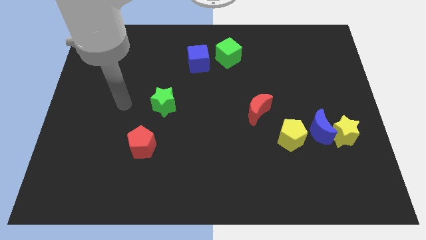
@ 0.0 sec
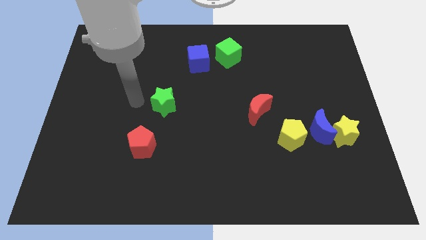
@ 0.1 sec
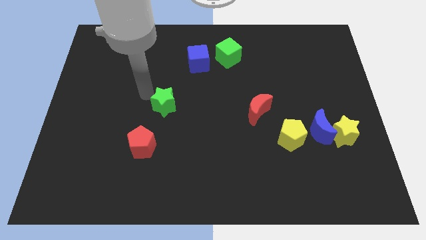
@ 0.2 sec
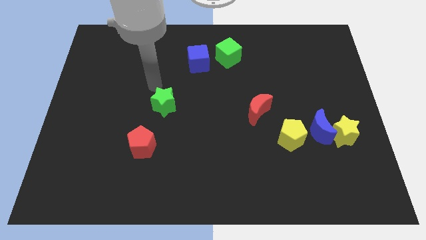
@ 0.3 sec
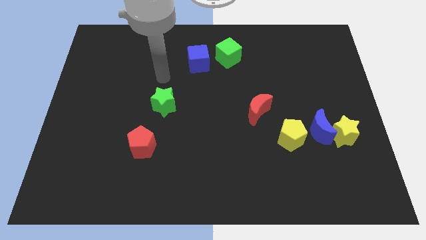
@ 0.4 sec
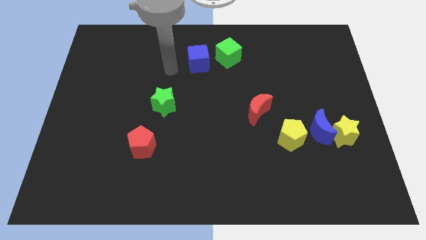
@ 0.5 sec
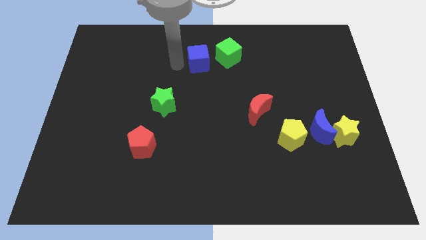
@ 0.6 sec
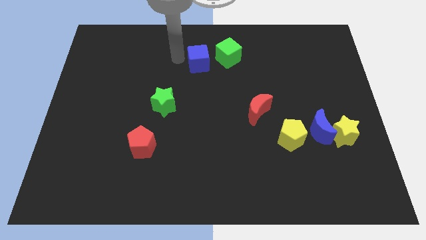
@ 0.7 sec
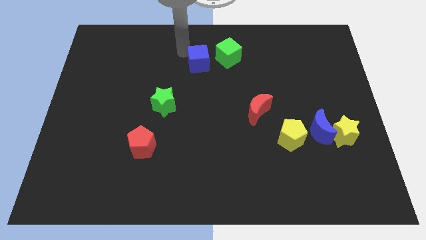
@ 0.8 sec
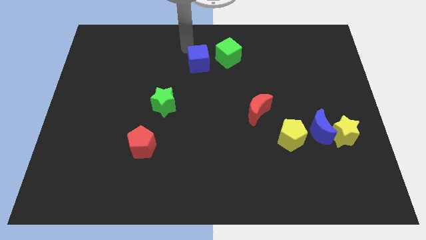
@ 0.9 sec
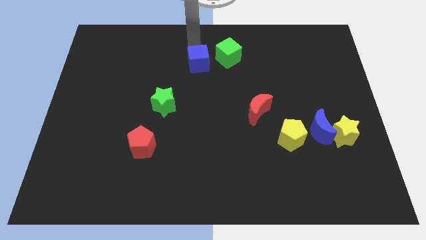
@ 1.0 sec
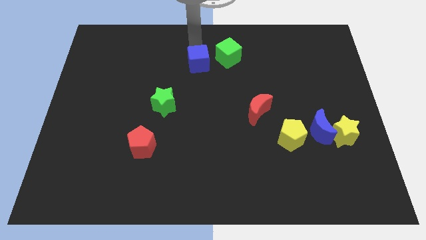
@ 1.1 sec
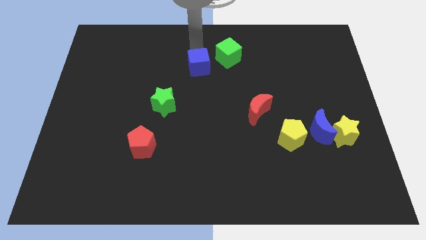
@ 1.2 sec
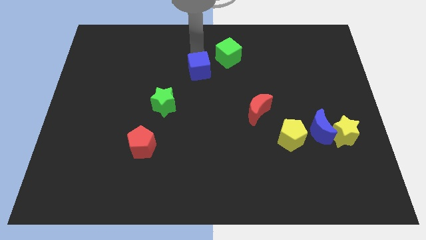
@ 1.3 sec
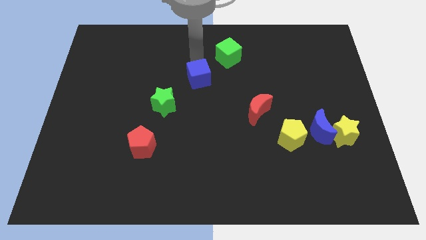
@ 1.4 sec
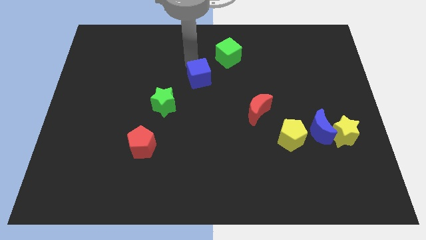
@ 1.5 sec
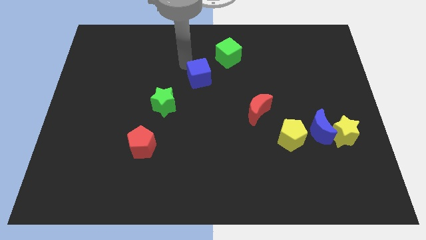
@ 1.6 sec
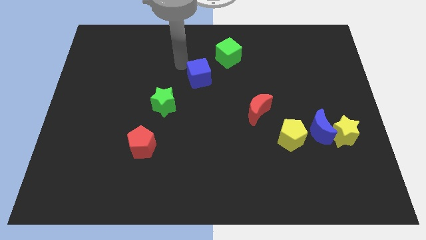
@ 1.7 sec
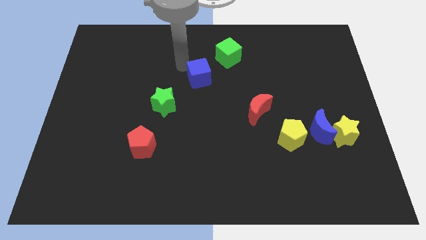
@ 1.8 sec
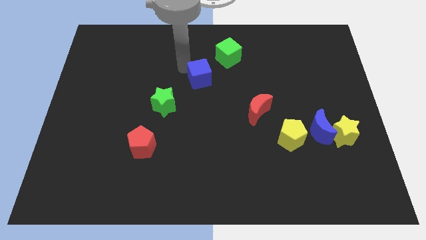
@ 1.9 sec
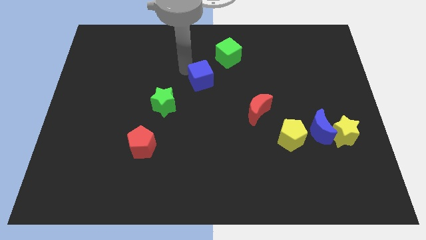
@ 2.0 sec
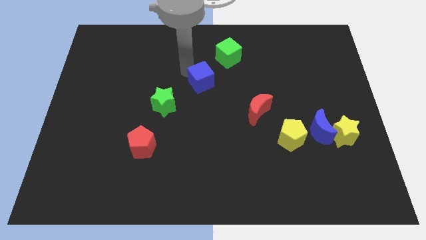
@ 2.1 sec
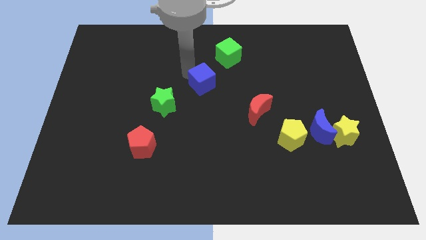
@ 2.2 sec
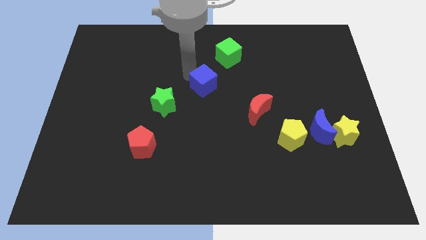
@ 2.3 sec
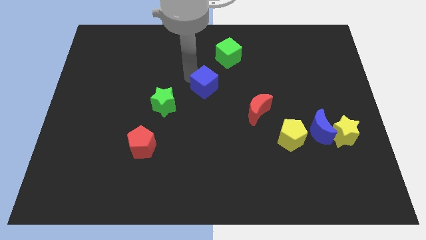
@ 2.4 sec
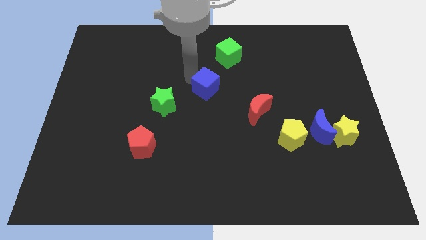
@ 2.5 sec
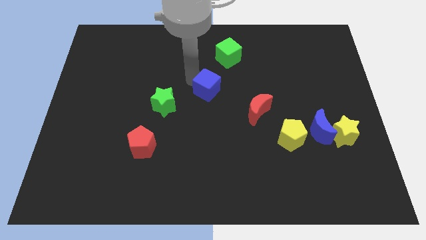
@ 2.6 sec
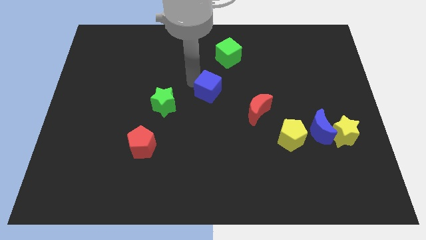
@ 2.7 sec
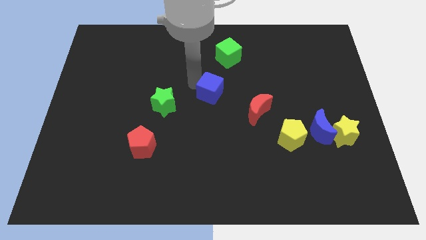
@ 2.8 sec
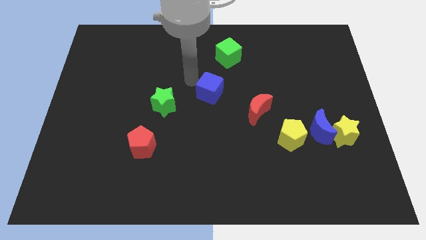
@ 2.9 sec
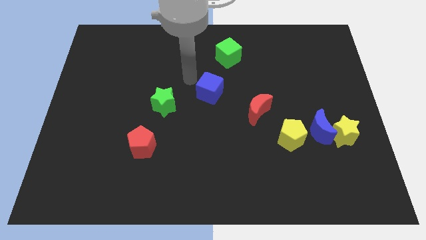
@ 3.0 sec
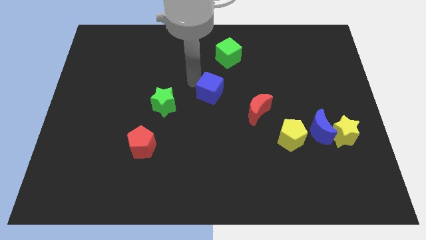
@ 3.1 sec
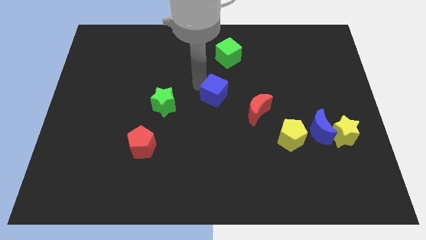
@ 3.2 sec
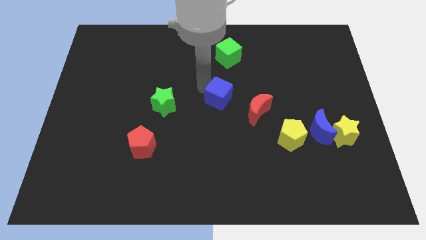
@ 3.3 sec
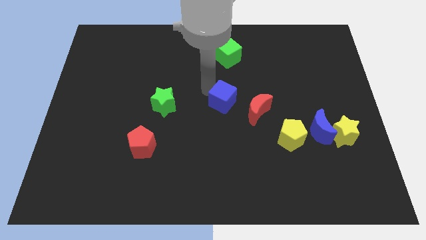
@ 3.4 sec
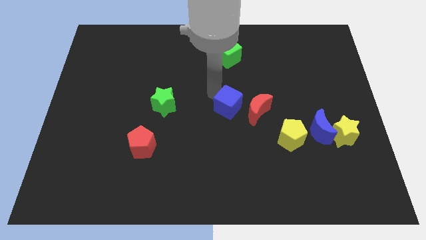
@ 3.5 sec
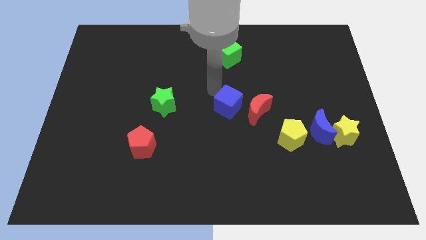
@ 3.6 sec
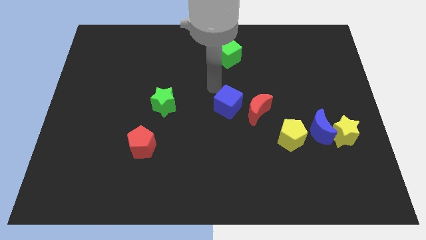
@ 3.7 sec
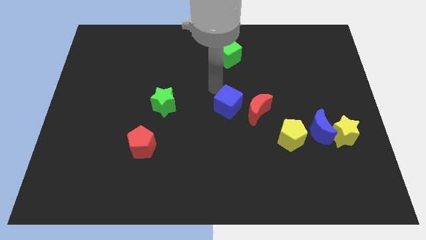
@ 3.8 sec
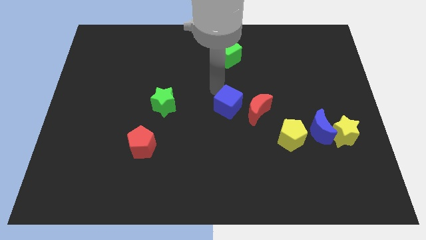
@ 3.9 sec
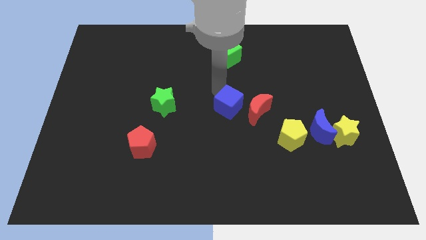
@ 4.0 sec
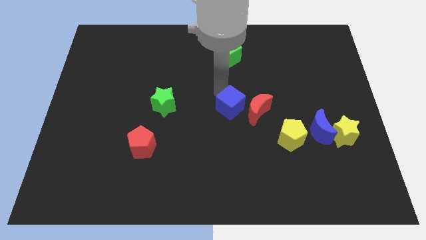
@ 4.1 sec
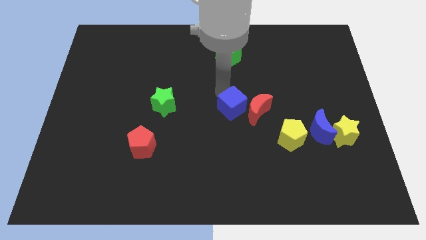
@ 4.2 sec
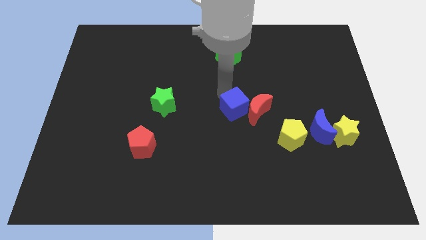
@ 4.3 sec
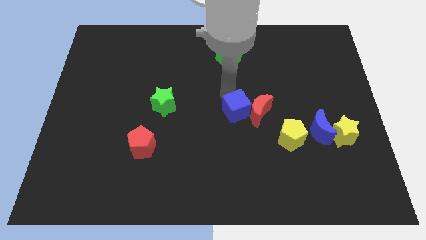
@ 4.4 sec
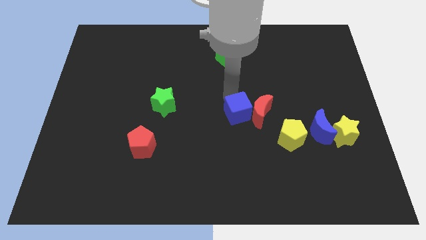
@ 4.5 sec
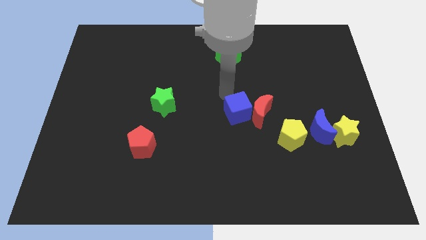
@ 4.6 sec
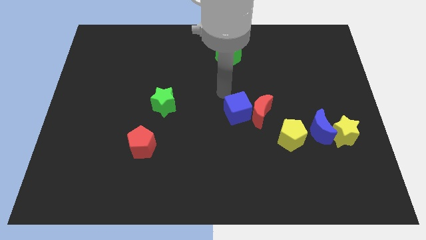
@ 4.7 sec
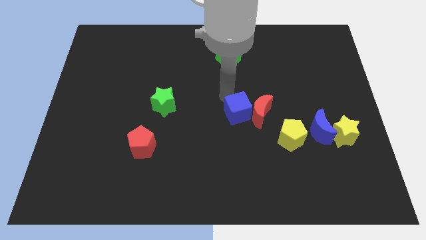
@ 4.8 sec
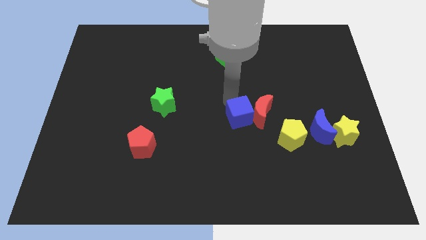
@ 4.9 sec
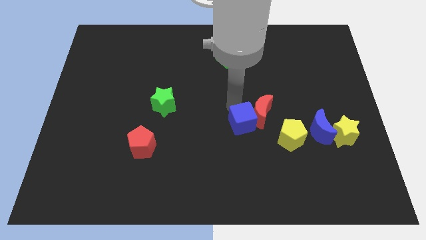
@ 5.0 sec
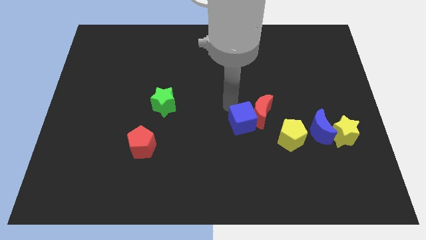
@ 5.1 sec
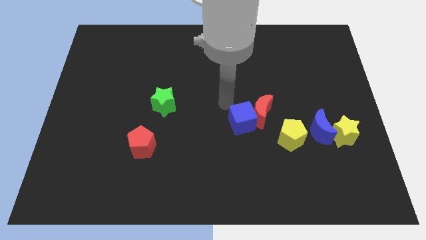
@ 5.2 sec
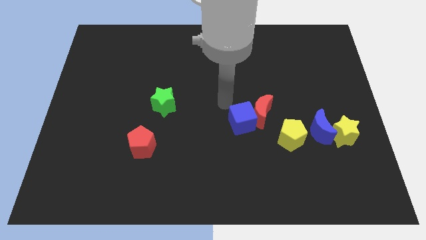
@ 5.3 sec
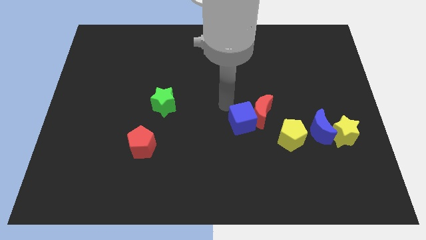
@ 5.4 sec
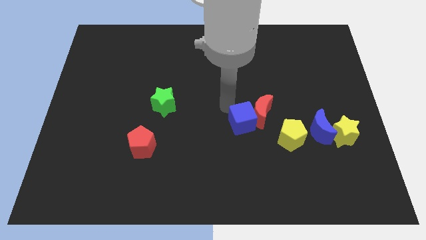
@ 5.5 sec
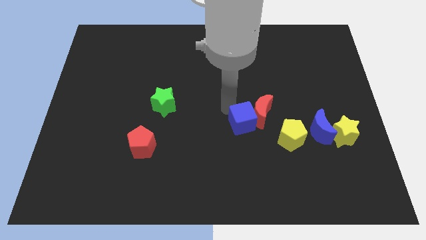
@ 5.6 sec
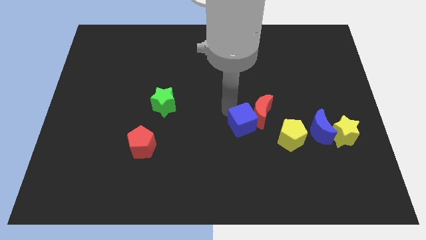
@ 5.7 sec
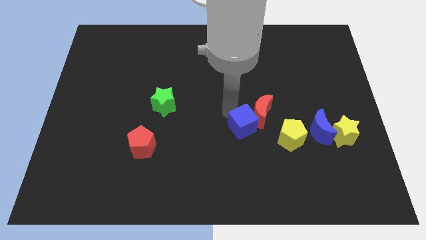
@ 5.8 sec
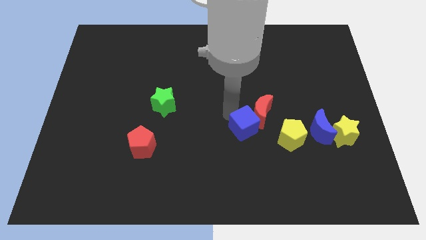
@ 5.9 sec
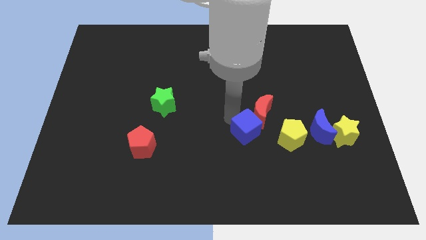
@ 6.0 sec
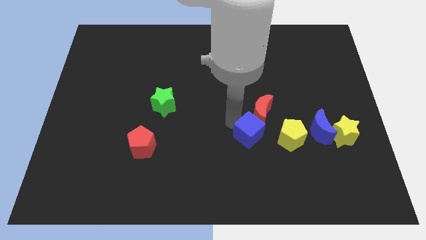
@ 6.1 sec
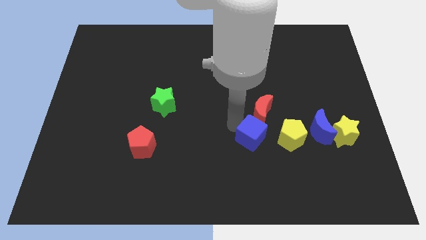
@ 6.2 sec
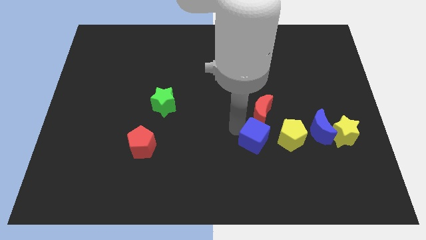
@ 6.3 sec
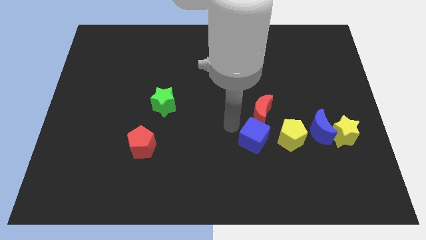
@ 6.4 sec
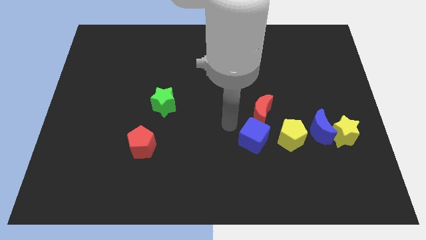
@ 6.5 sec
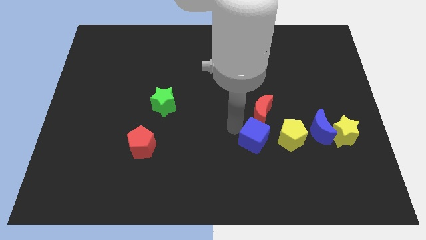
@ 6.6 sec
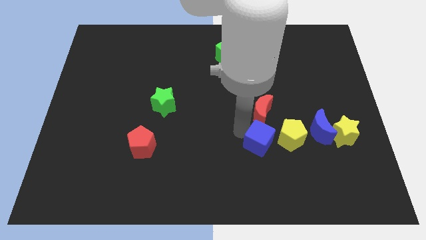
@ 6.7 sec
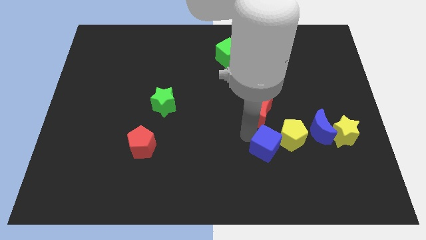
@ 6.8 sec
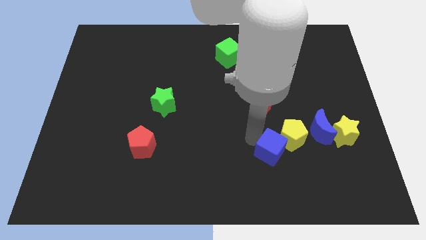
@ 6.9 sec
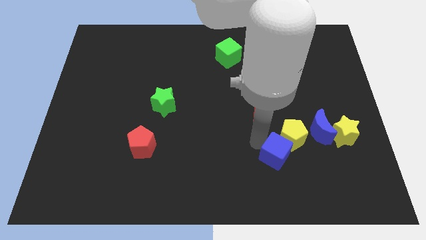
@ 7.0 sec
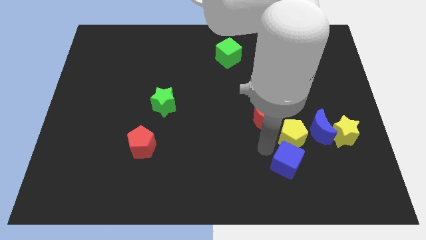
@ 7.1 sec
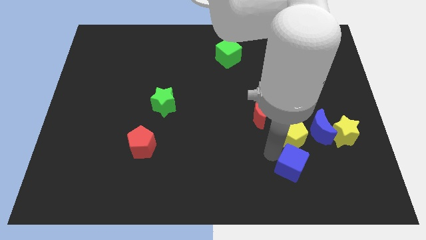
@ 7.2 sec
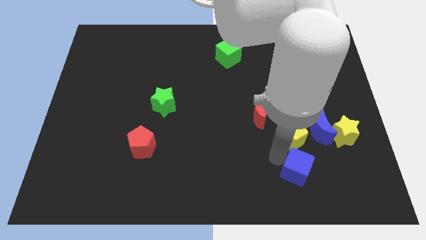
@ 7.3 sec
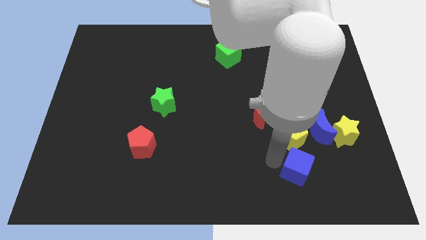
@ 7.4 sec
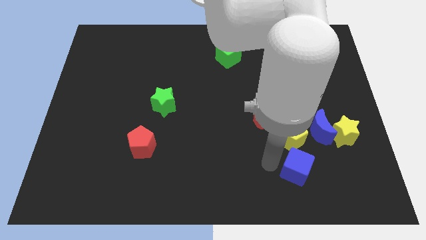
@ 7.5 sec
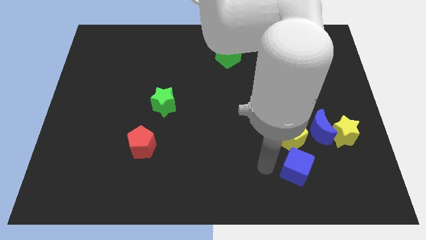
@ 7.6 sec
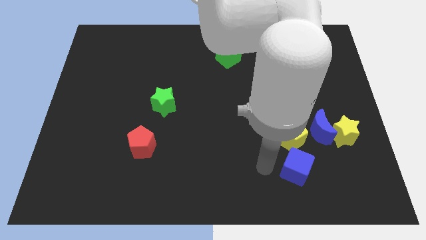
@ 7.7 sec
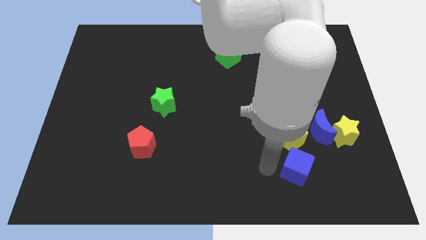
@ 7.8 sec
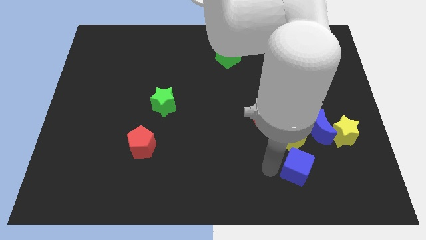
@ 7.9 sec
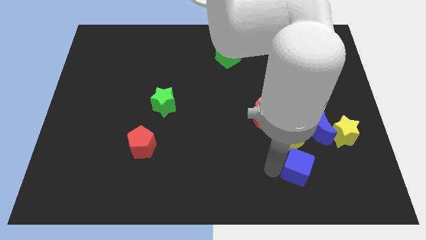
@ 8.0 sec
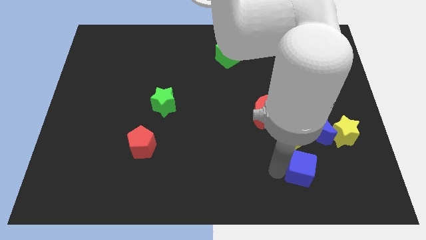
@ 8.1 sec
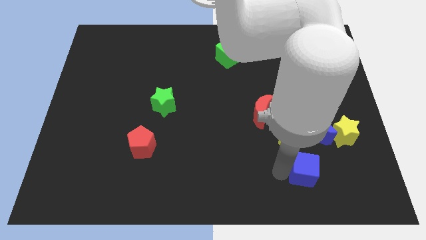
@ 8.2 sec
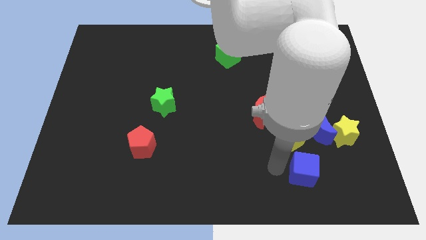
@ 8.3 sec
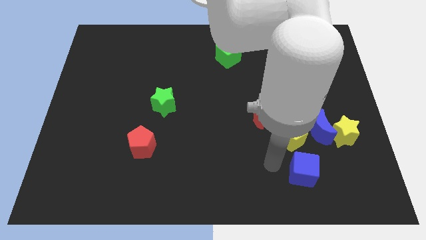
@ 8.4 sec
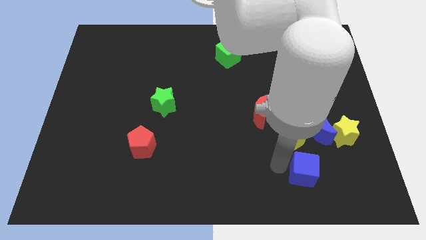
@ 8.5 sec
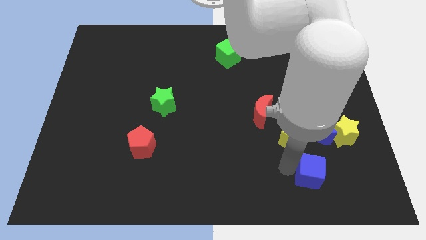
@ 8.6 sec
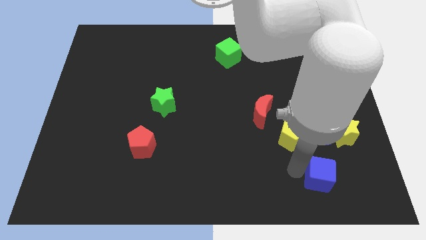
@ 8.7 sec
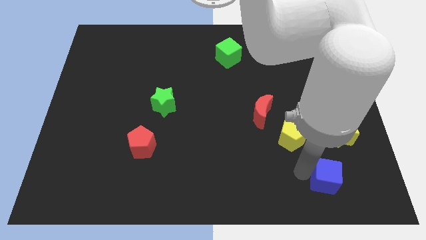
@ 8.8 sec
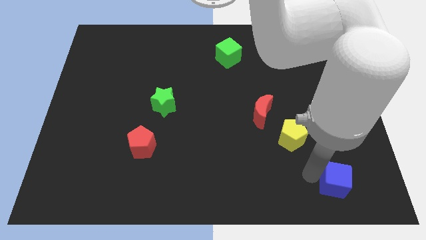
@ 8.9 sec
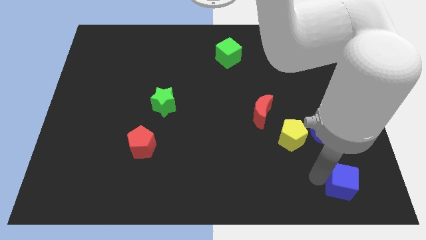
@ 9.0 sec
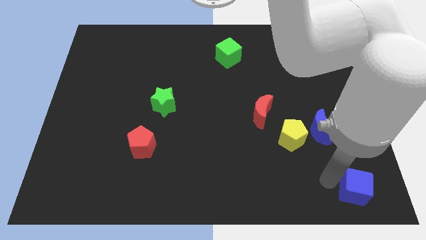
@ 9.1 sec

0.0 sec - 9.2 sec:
slide the blue cube to the bottom right corner
